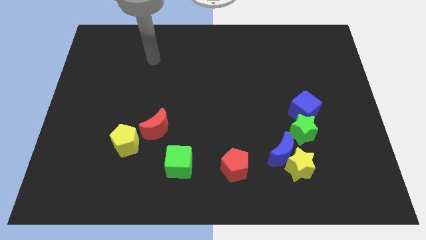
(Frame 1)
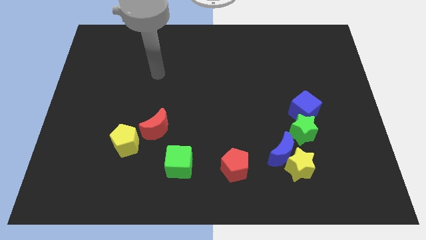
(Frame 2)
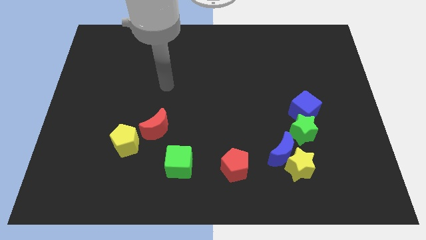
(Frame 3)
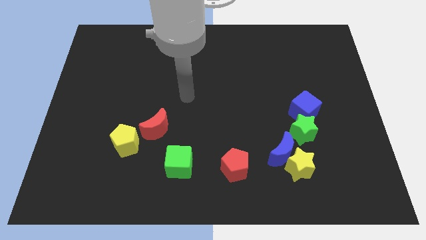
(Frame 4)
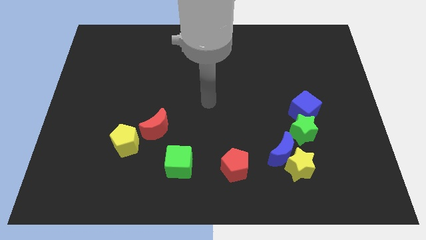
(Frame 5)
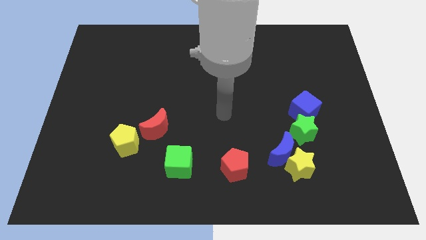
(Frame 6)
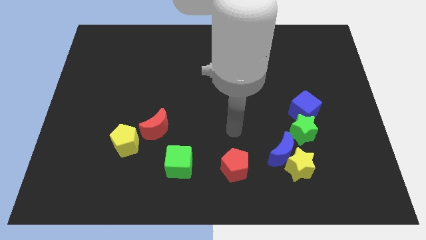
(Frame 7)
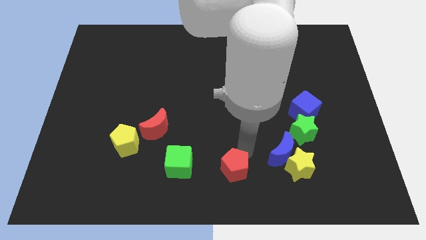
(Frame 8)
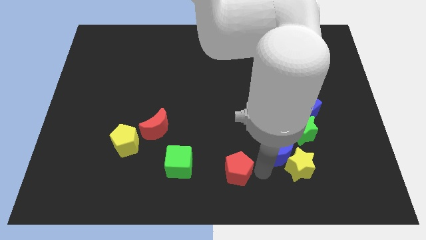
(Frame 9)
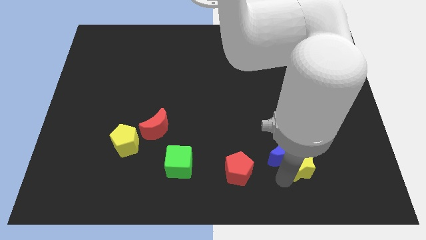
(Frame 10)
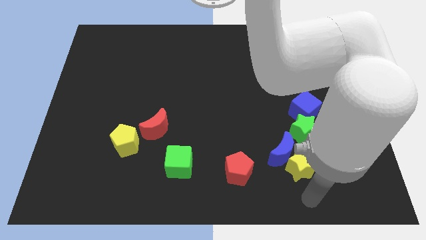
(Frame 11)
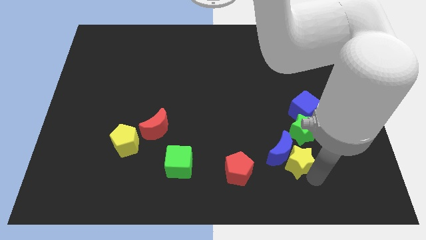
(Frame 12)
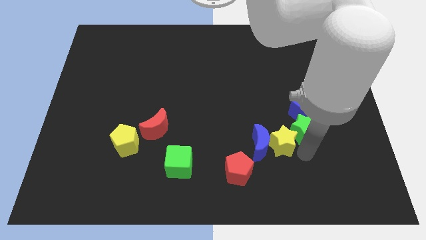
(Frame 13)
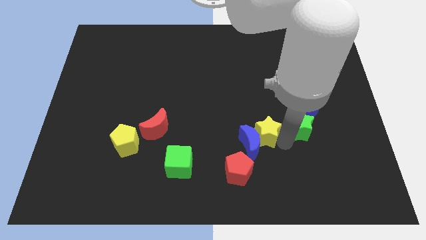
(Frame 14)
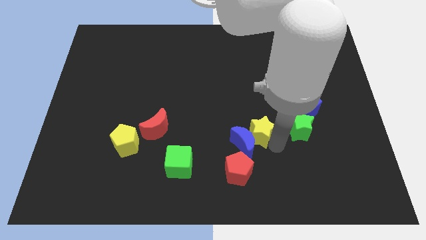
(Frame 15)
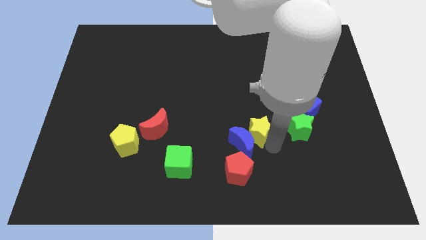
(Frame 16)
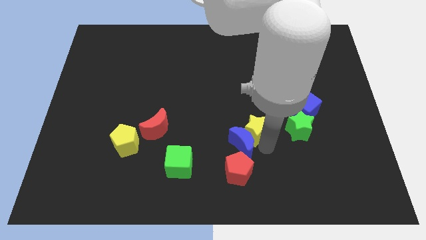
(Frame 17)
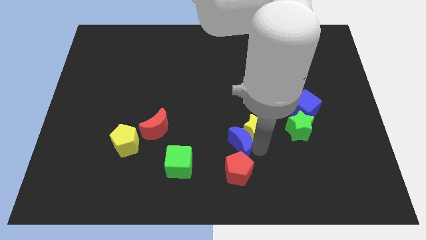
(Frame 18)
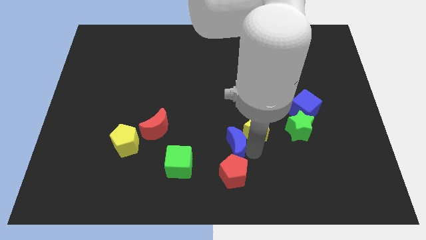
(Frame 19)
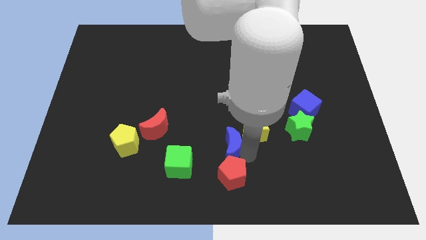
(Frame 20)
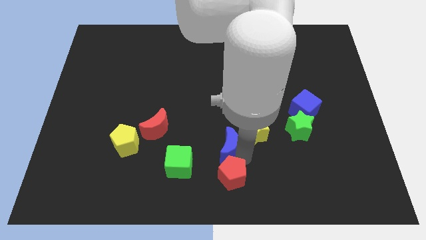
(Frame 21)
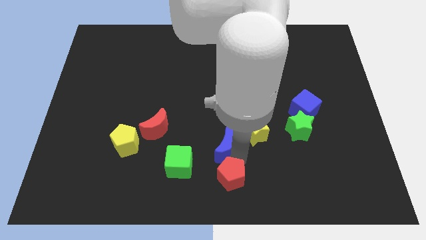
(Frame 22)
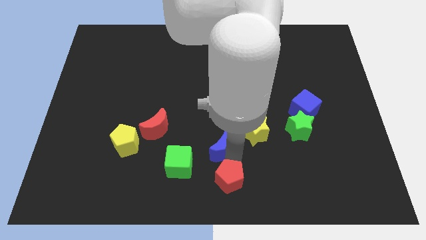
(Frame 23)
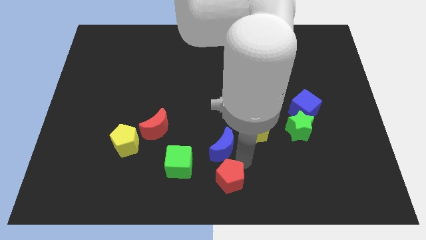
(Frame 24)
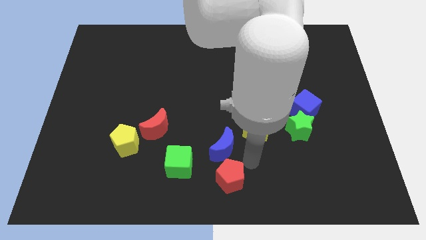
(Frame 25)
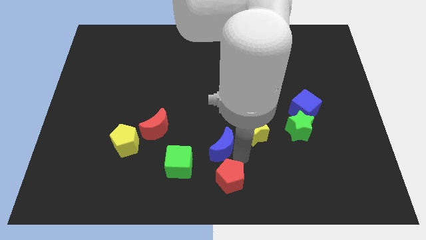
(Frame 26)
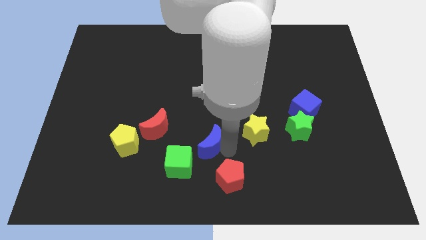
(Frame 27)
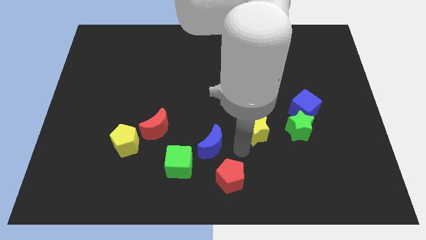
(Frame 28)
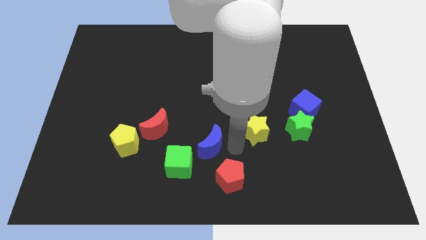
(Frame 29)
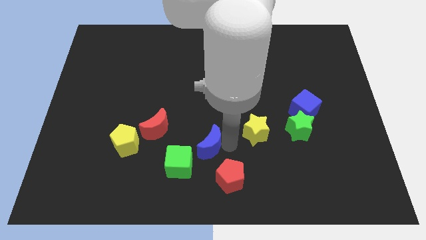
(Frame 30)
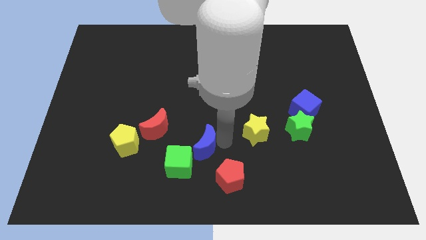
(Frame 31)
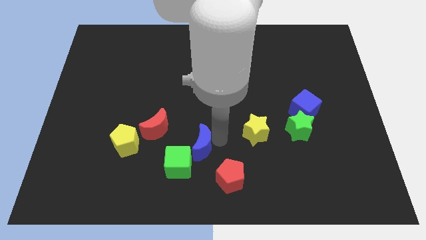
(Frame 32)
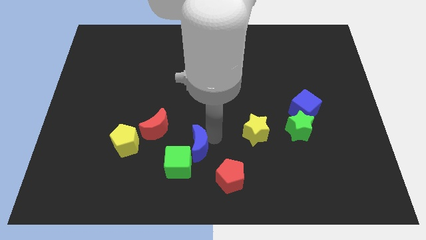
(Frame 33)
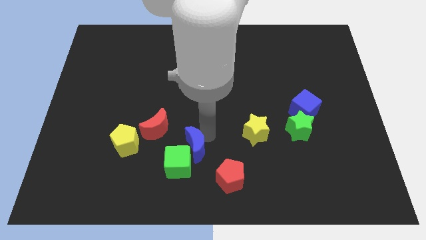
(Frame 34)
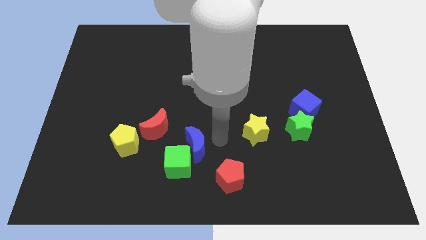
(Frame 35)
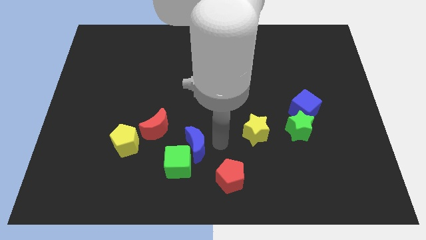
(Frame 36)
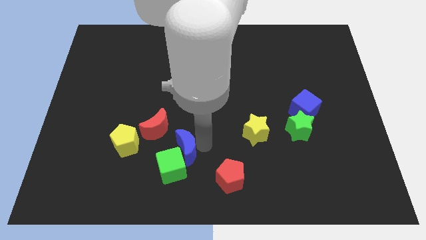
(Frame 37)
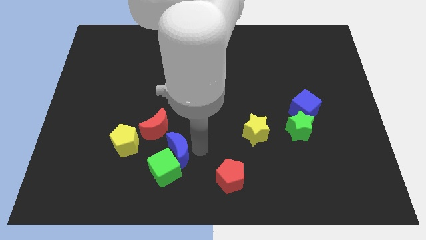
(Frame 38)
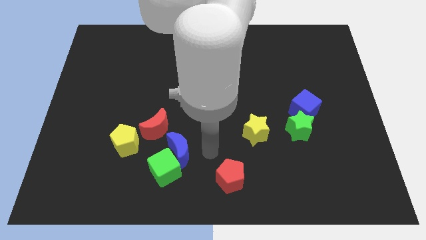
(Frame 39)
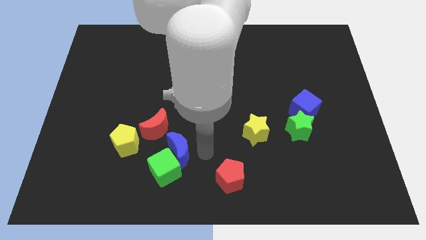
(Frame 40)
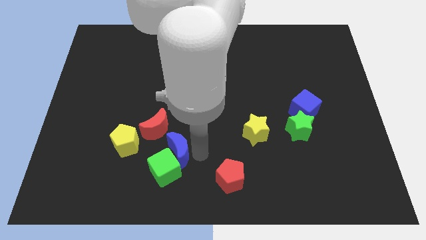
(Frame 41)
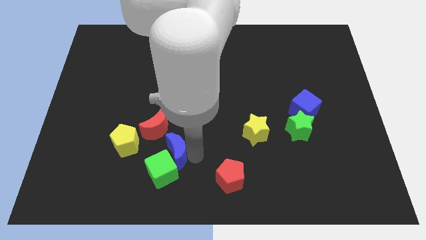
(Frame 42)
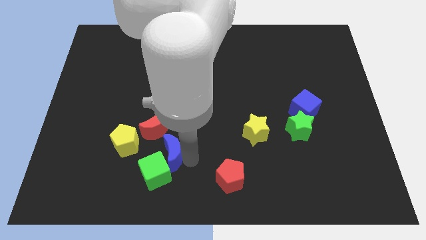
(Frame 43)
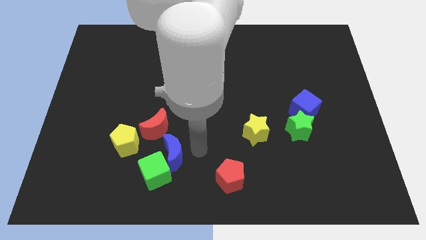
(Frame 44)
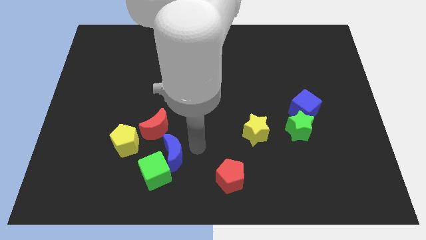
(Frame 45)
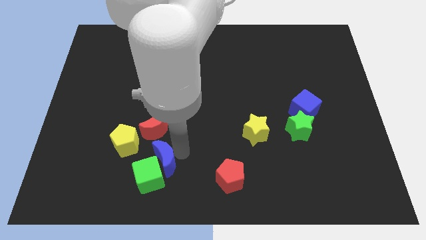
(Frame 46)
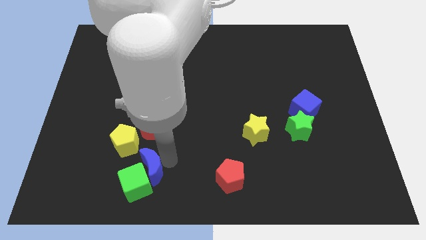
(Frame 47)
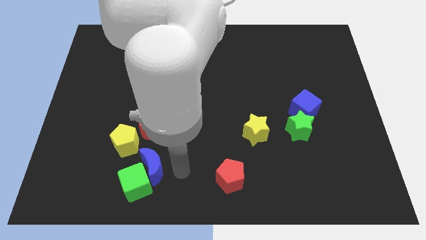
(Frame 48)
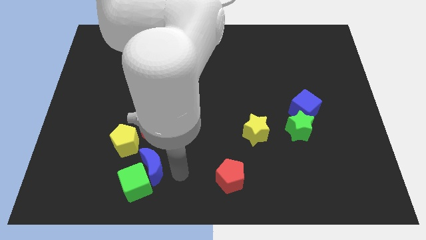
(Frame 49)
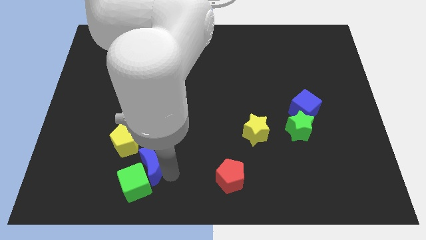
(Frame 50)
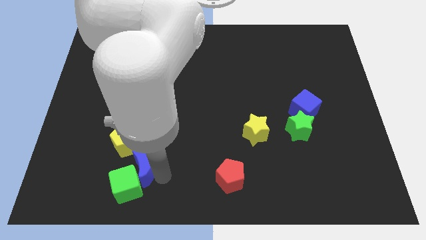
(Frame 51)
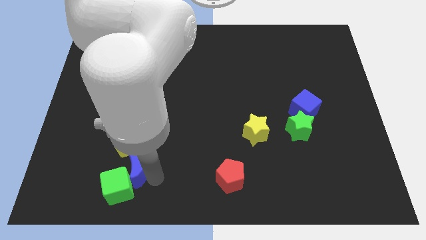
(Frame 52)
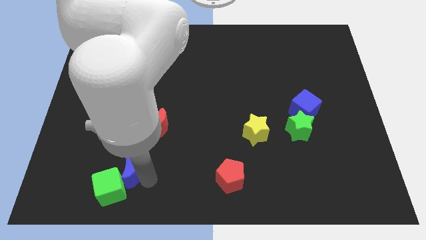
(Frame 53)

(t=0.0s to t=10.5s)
move the blue moon to the bottom left of the red moon

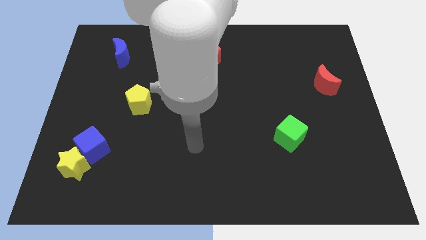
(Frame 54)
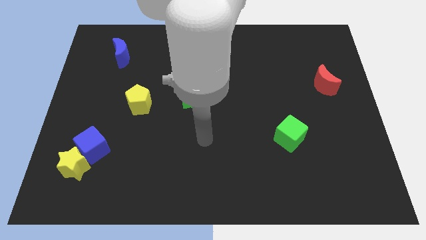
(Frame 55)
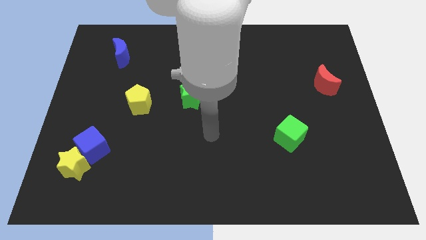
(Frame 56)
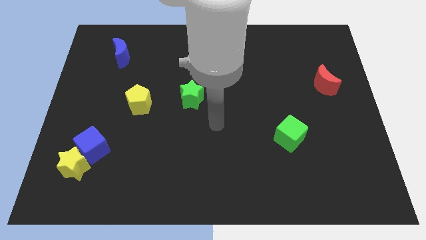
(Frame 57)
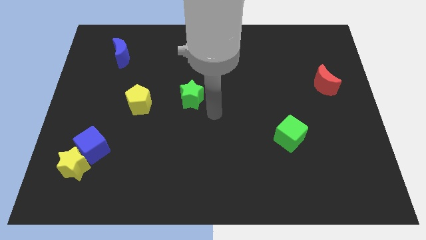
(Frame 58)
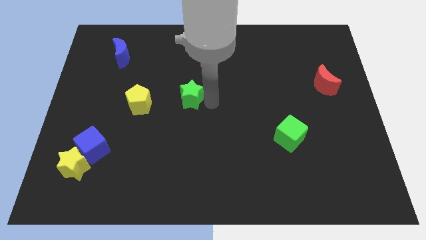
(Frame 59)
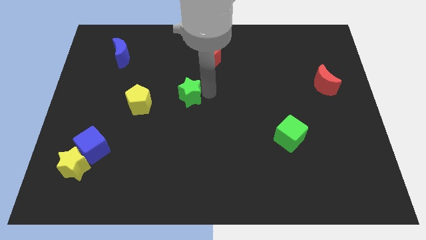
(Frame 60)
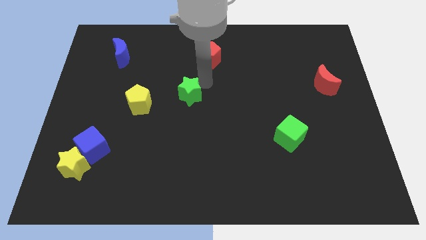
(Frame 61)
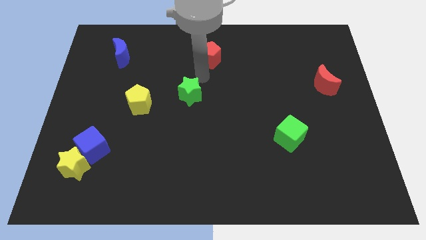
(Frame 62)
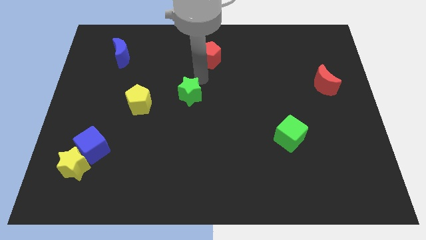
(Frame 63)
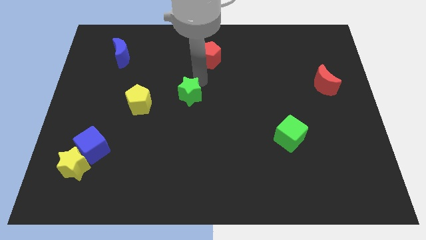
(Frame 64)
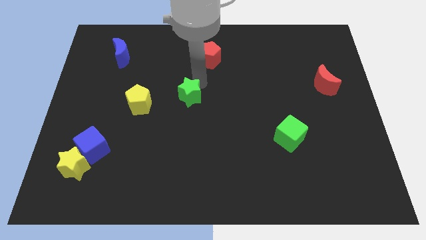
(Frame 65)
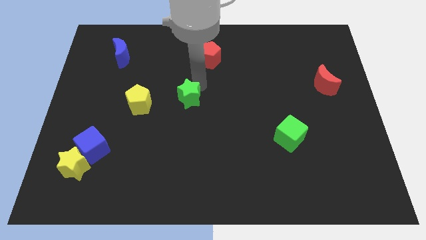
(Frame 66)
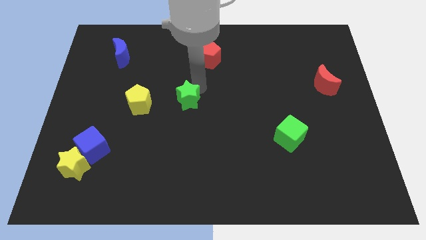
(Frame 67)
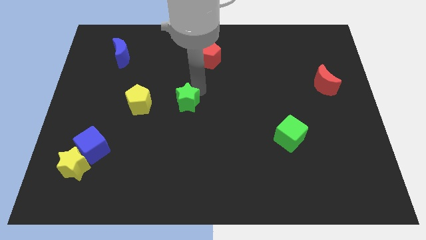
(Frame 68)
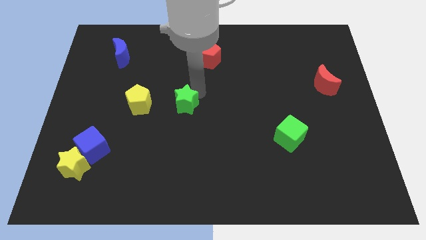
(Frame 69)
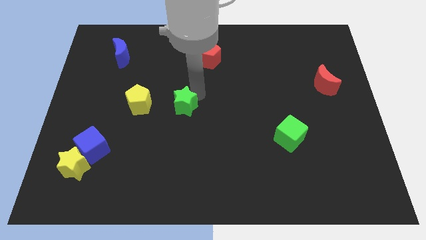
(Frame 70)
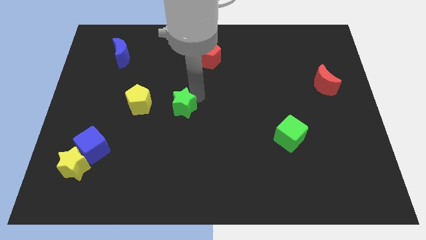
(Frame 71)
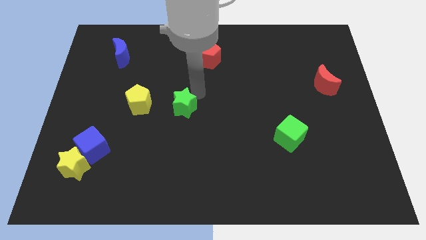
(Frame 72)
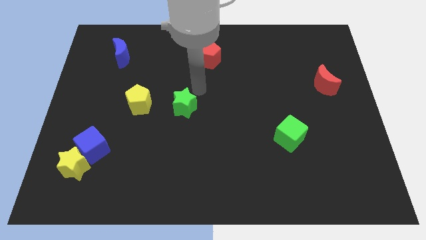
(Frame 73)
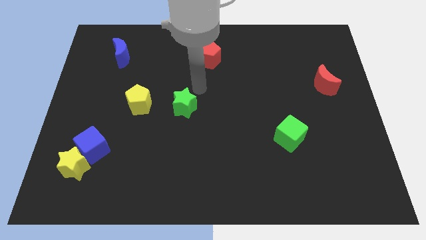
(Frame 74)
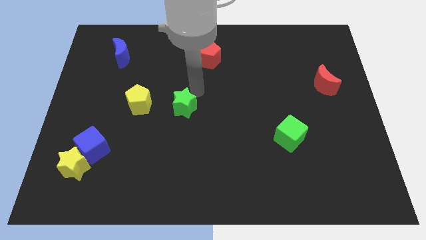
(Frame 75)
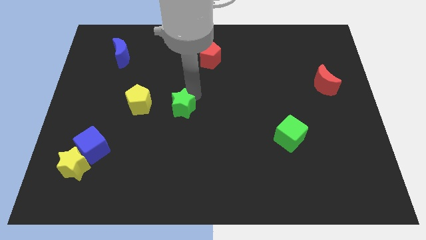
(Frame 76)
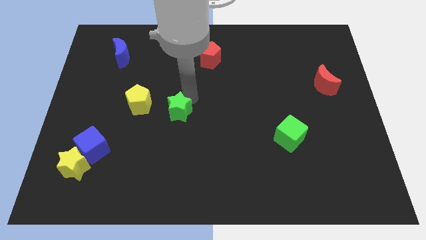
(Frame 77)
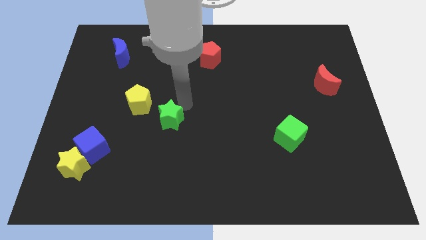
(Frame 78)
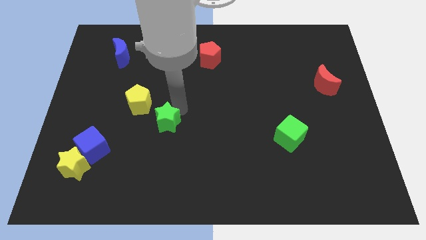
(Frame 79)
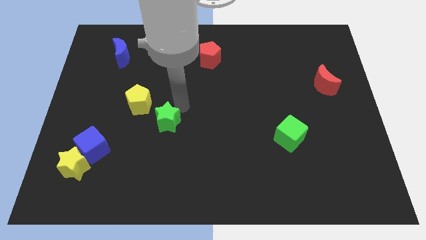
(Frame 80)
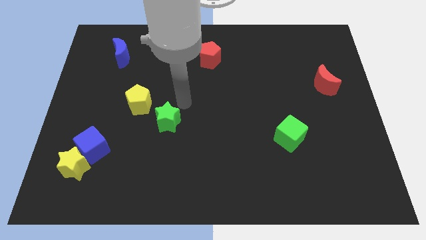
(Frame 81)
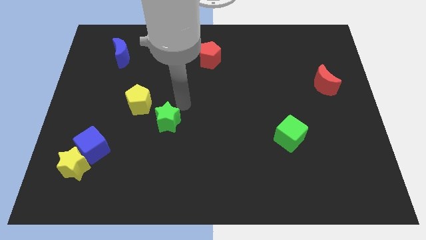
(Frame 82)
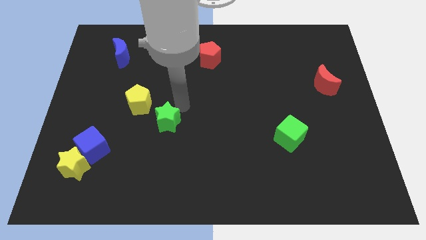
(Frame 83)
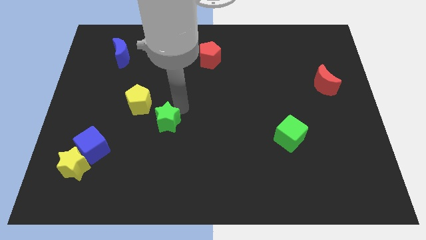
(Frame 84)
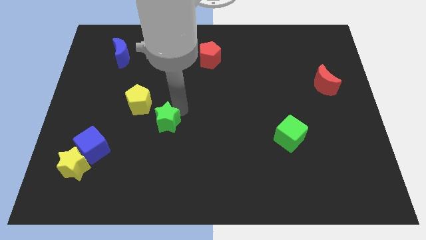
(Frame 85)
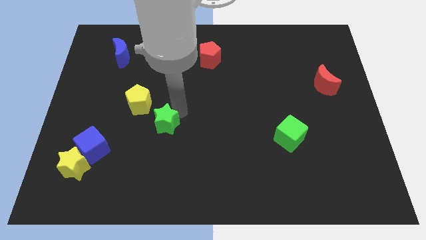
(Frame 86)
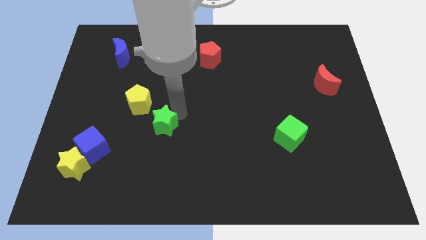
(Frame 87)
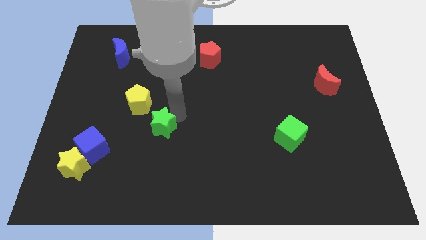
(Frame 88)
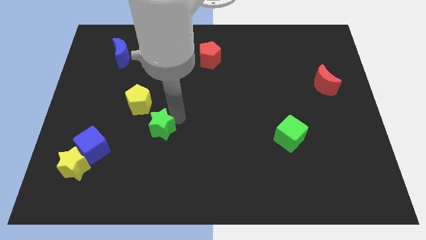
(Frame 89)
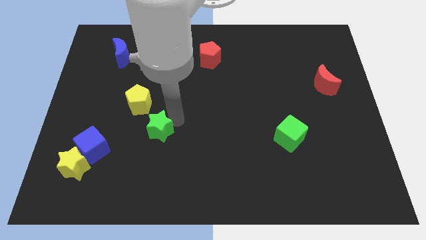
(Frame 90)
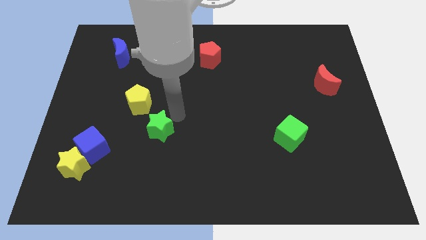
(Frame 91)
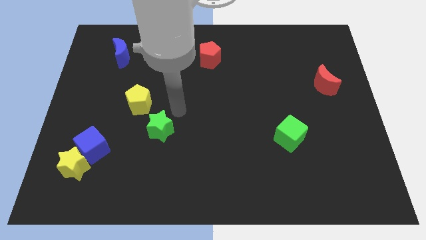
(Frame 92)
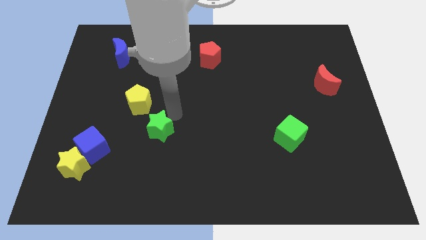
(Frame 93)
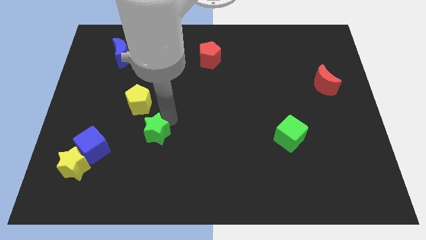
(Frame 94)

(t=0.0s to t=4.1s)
move the green star just right of the blue cube
